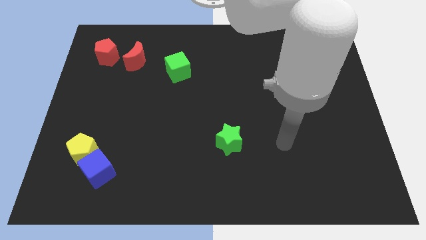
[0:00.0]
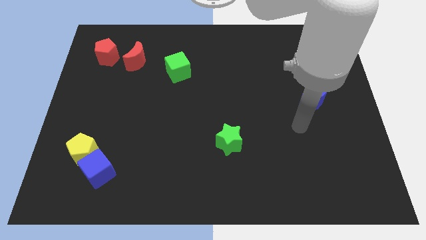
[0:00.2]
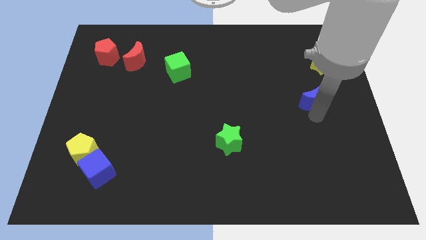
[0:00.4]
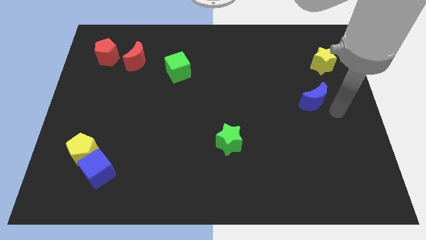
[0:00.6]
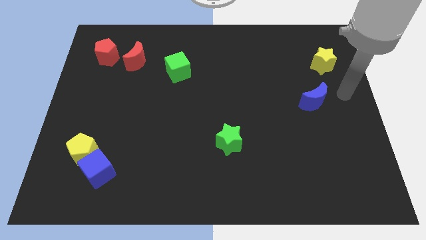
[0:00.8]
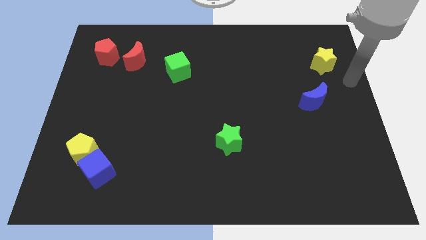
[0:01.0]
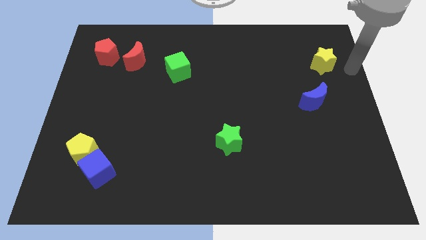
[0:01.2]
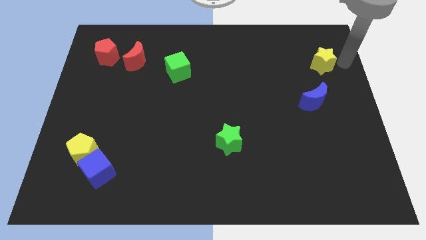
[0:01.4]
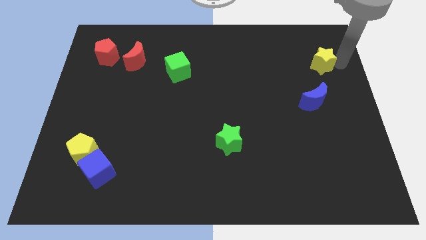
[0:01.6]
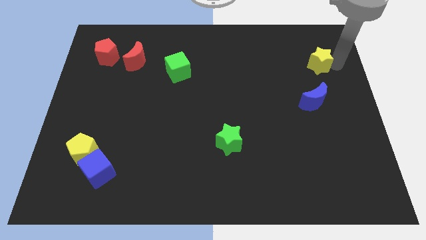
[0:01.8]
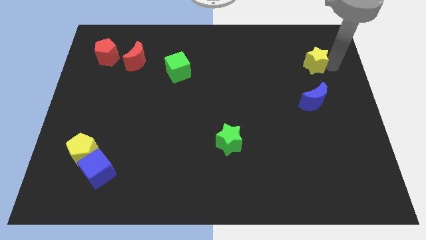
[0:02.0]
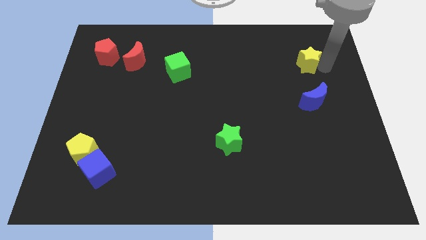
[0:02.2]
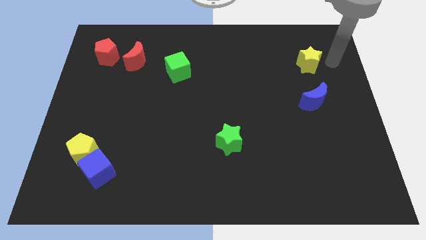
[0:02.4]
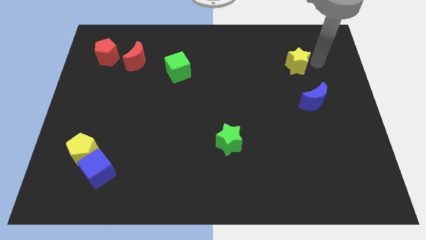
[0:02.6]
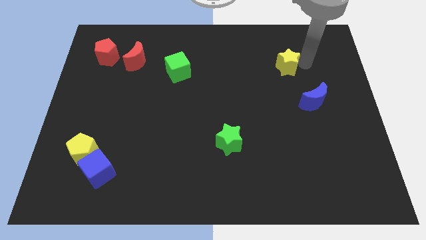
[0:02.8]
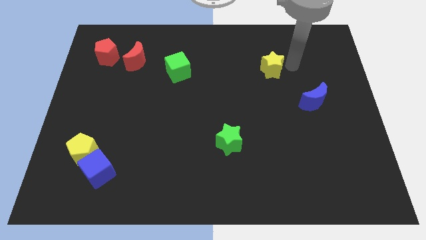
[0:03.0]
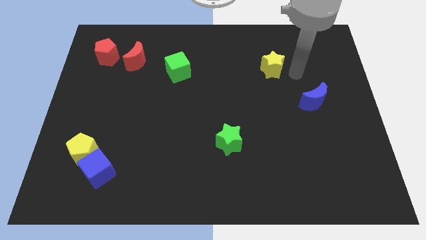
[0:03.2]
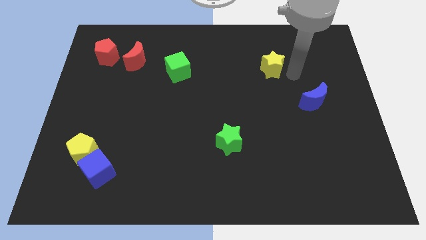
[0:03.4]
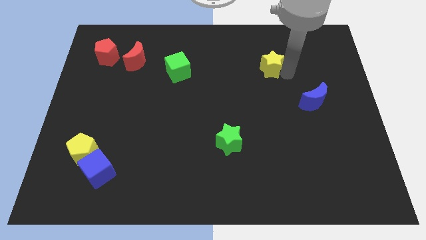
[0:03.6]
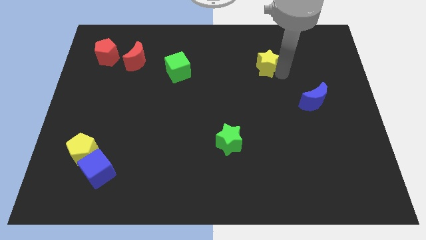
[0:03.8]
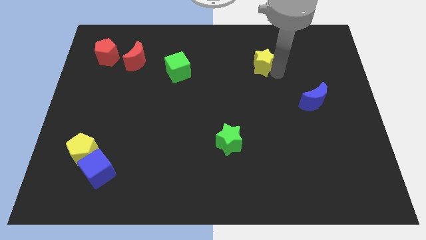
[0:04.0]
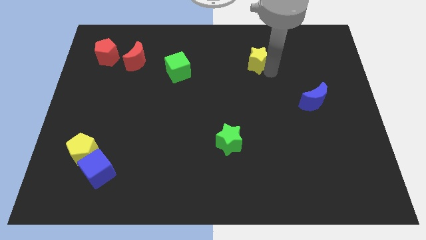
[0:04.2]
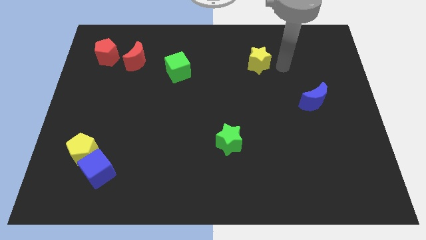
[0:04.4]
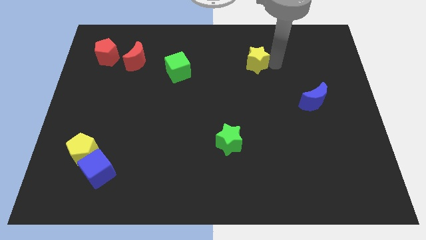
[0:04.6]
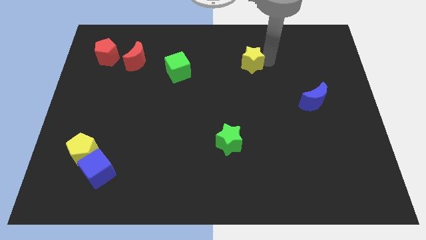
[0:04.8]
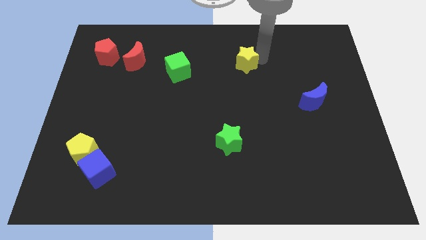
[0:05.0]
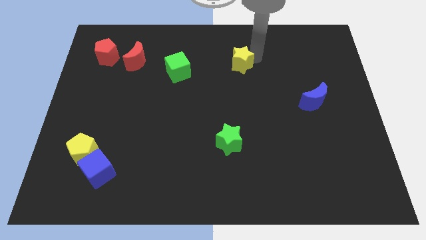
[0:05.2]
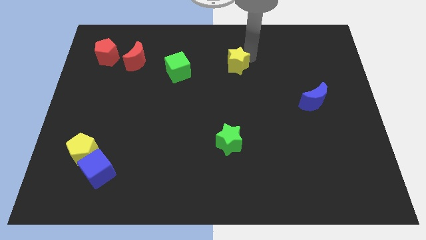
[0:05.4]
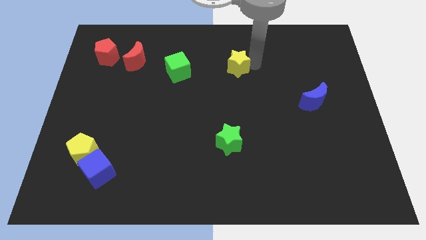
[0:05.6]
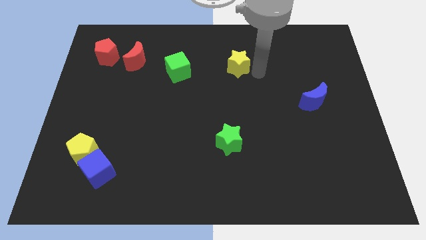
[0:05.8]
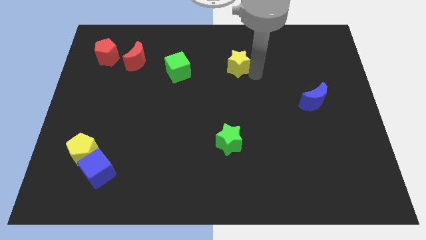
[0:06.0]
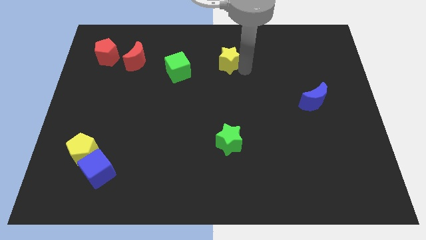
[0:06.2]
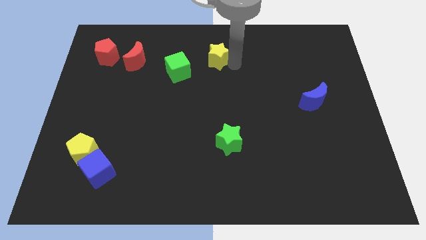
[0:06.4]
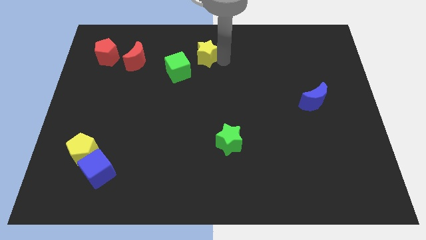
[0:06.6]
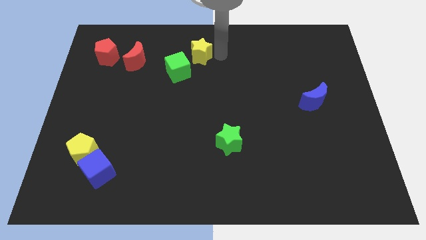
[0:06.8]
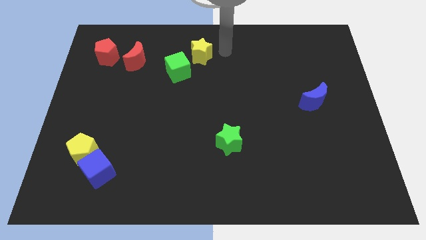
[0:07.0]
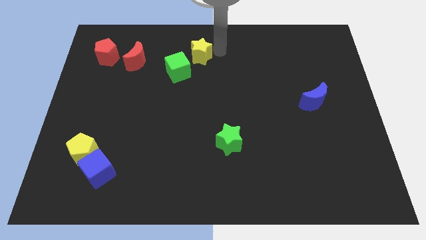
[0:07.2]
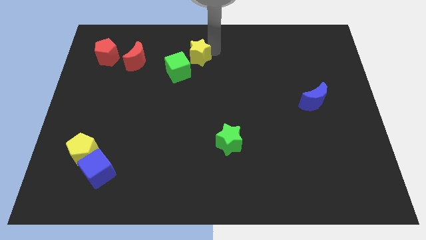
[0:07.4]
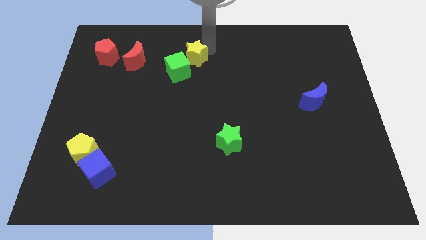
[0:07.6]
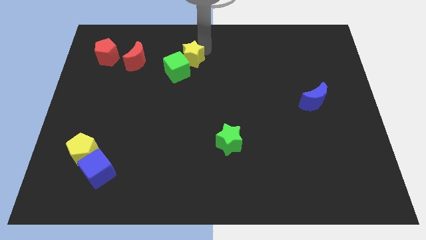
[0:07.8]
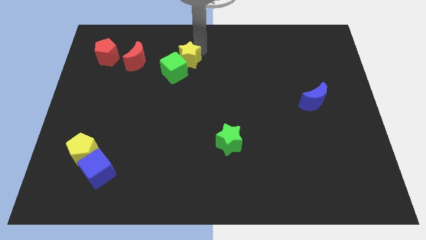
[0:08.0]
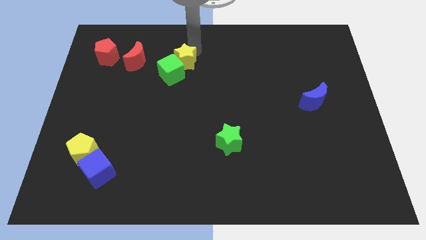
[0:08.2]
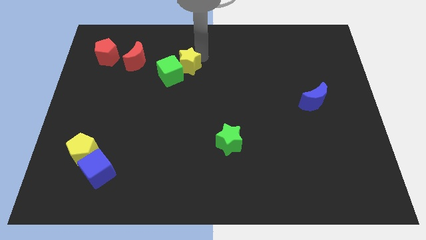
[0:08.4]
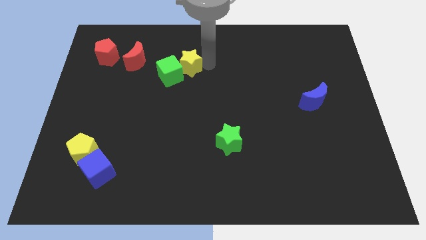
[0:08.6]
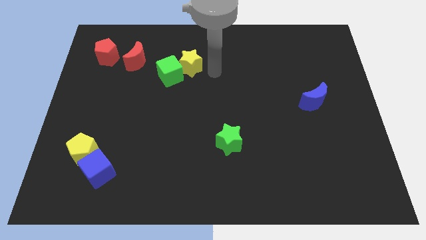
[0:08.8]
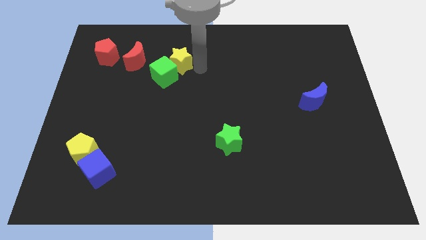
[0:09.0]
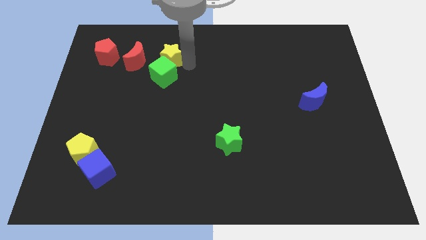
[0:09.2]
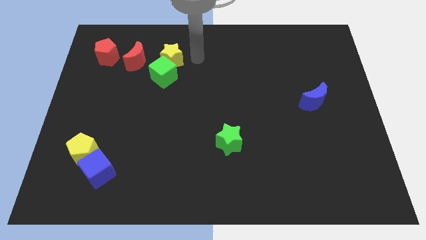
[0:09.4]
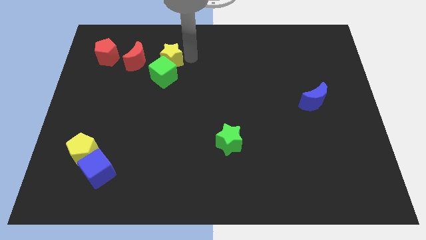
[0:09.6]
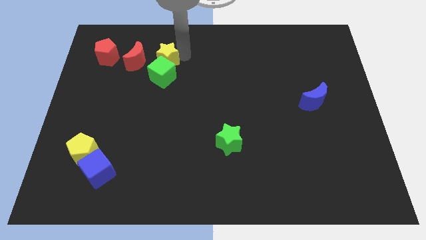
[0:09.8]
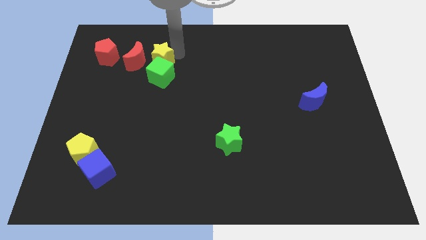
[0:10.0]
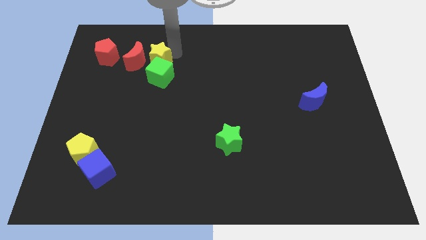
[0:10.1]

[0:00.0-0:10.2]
push the yellow star to the red moon

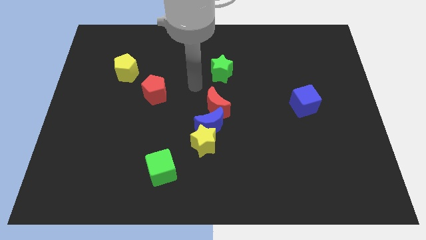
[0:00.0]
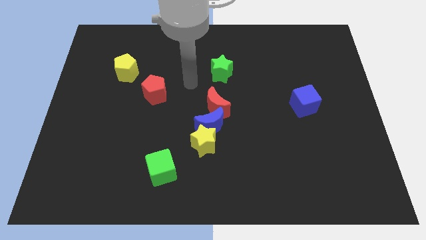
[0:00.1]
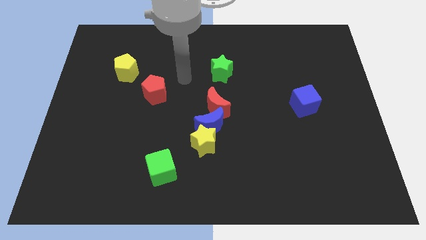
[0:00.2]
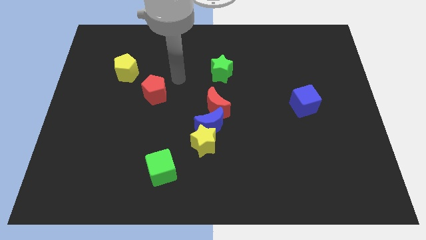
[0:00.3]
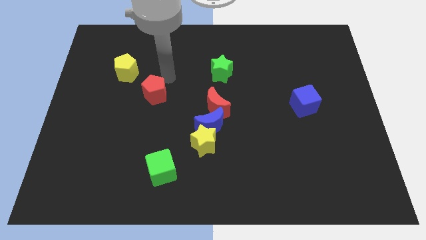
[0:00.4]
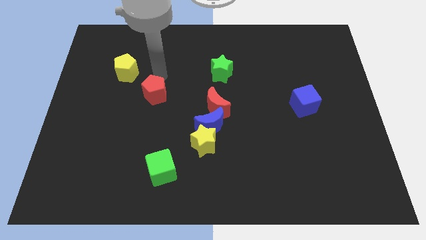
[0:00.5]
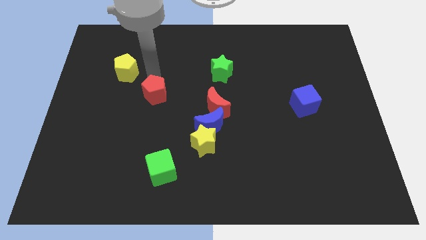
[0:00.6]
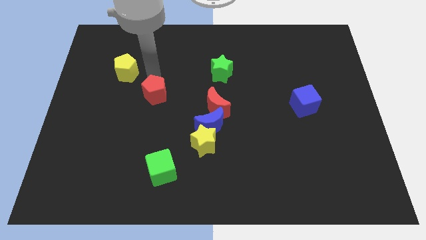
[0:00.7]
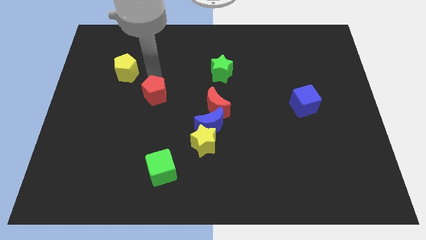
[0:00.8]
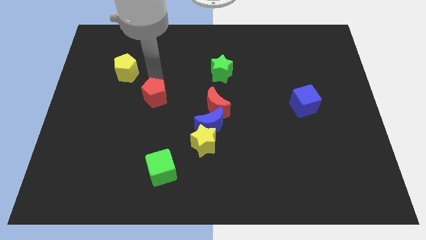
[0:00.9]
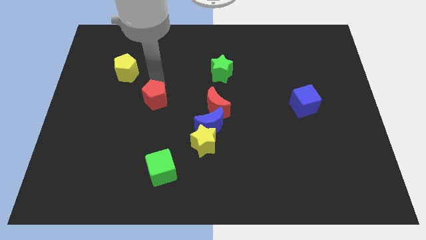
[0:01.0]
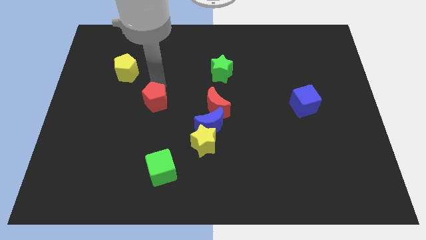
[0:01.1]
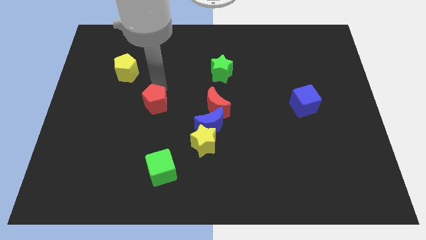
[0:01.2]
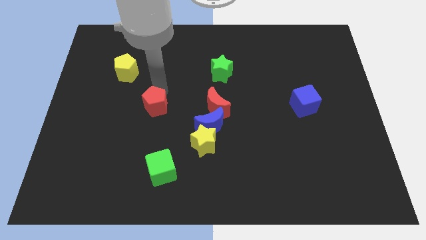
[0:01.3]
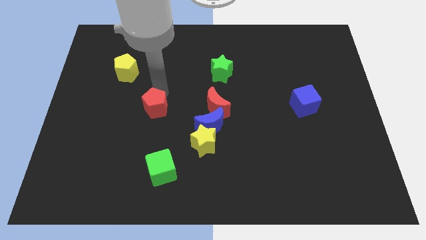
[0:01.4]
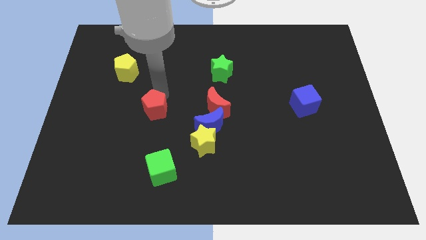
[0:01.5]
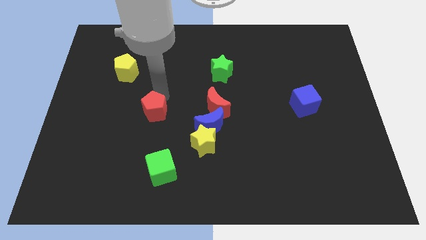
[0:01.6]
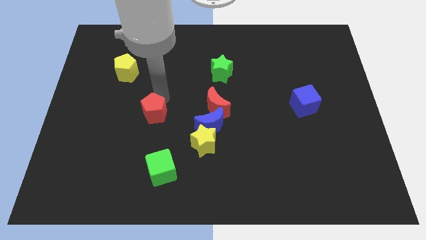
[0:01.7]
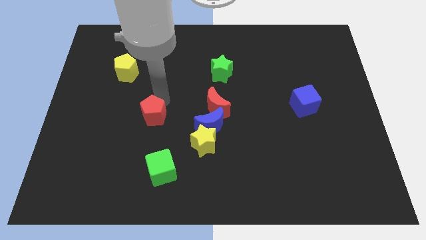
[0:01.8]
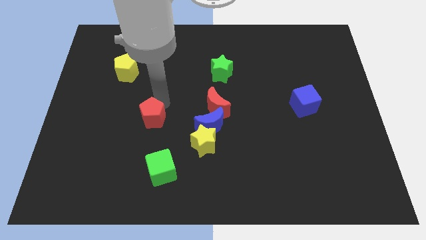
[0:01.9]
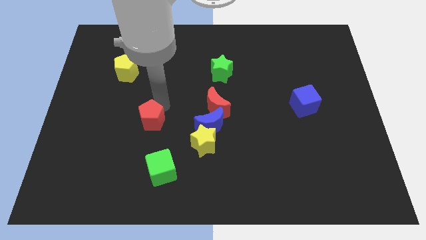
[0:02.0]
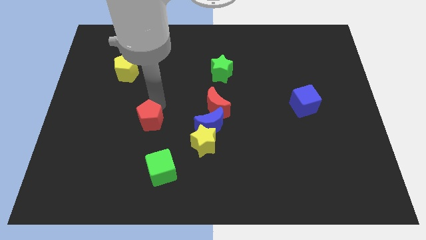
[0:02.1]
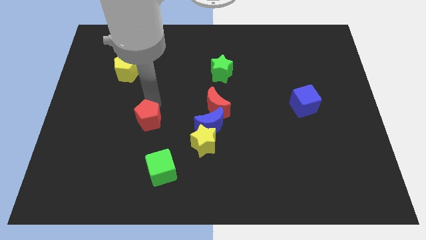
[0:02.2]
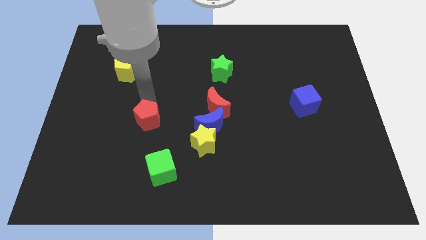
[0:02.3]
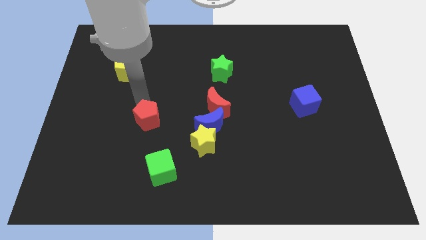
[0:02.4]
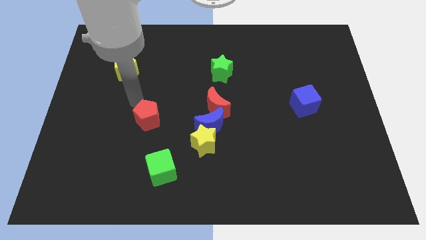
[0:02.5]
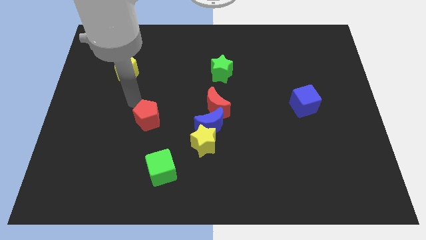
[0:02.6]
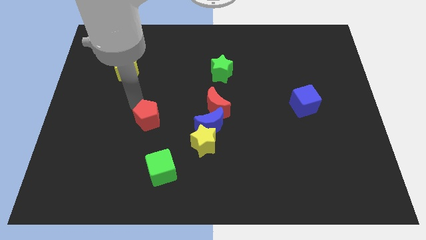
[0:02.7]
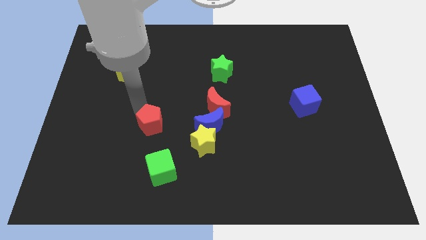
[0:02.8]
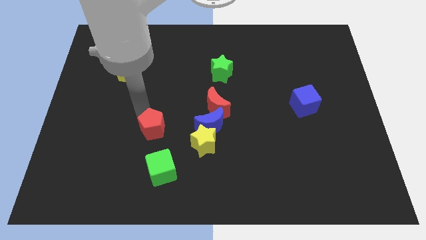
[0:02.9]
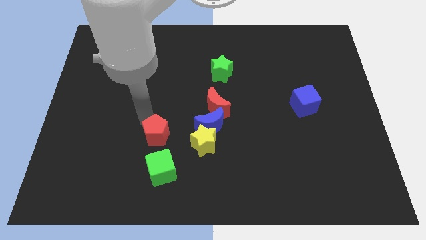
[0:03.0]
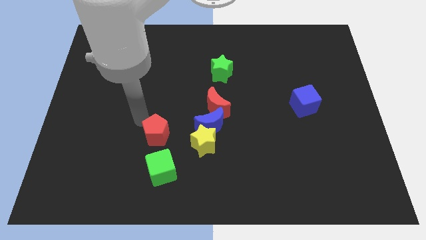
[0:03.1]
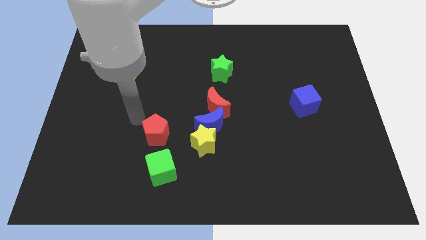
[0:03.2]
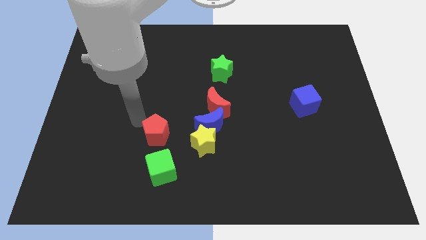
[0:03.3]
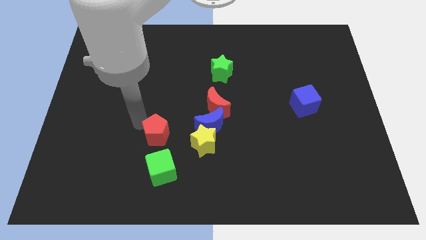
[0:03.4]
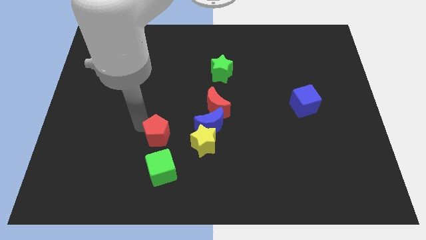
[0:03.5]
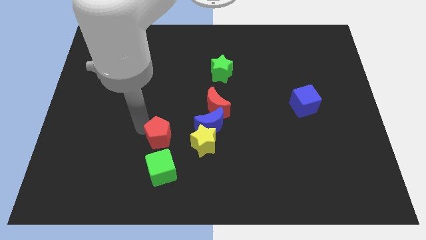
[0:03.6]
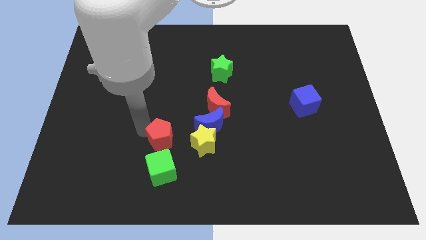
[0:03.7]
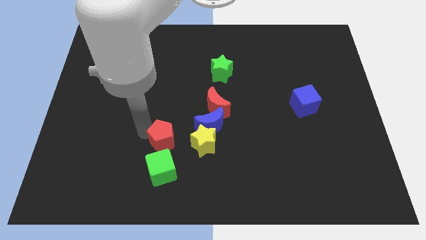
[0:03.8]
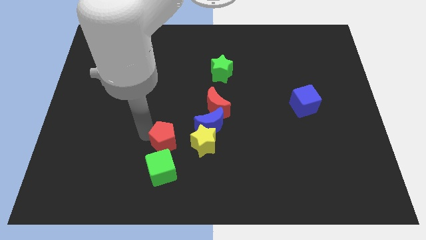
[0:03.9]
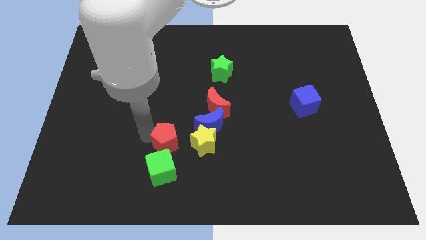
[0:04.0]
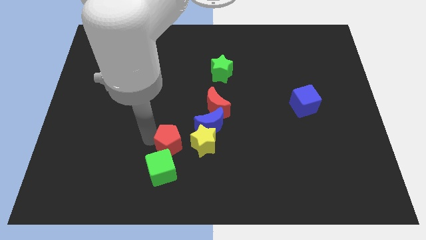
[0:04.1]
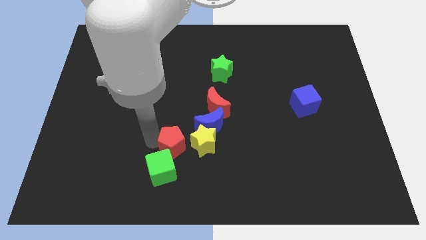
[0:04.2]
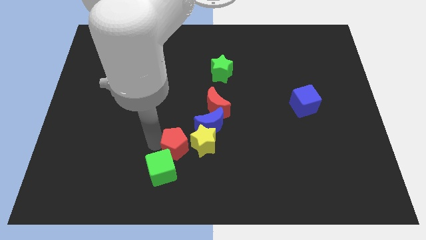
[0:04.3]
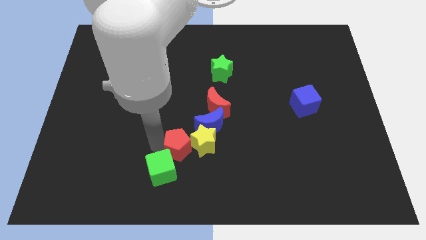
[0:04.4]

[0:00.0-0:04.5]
slide the red pentagon to the yellow star
